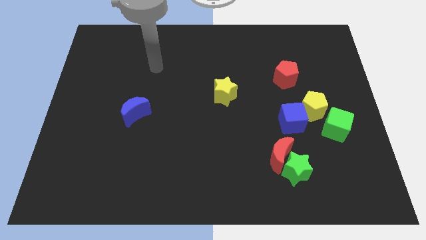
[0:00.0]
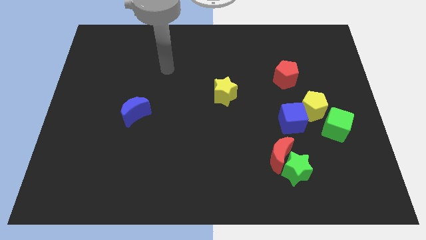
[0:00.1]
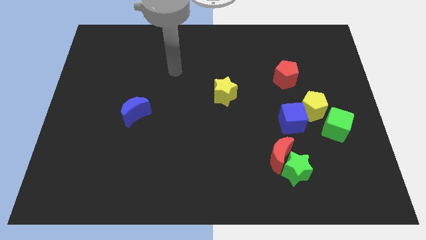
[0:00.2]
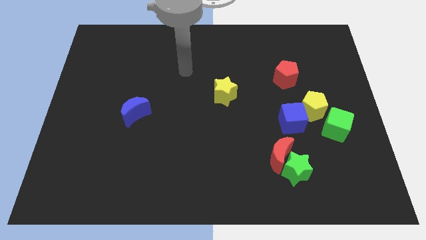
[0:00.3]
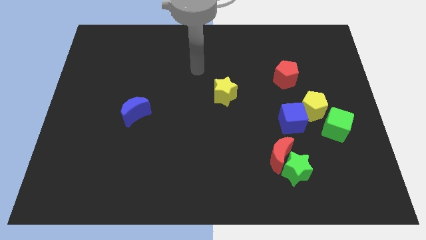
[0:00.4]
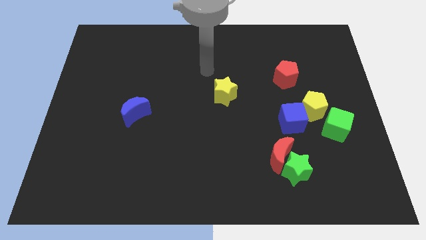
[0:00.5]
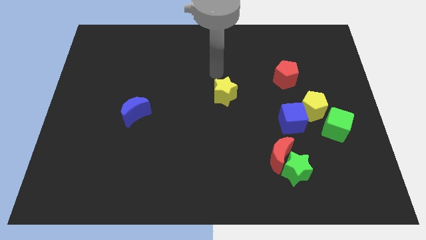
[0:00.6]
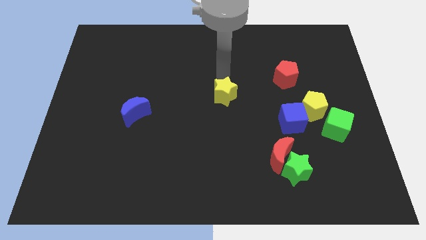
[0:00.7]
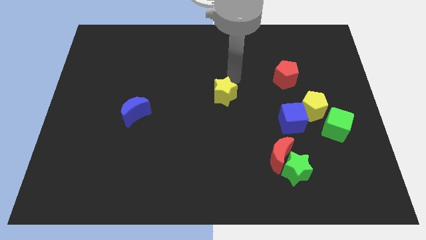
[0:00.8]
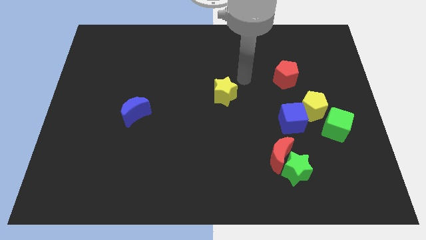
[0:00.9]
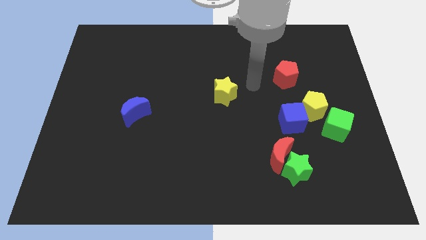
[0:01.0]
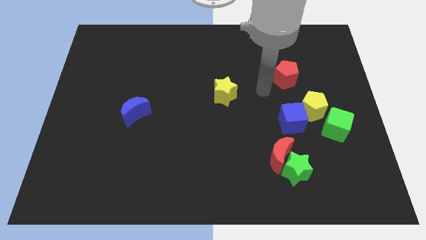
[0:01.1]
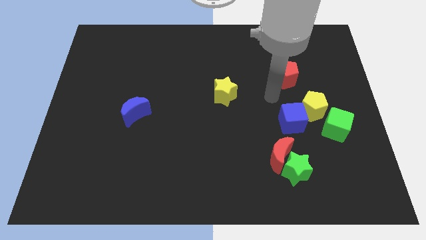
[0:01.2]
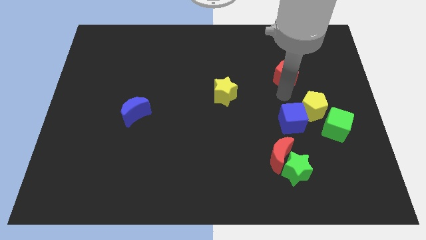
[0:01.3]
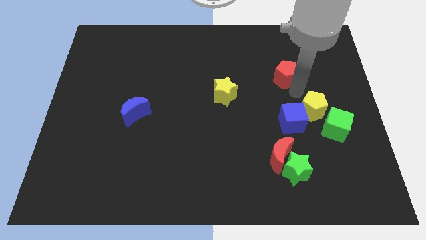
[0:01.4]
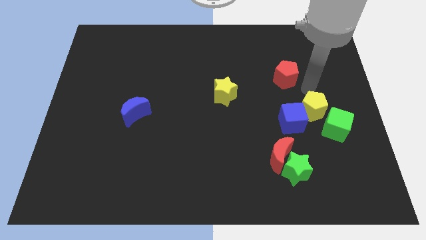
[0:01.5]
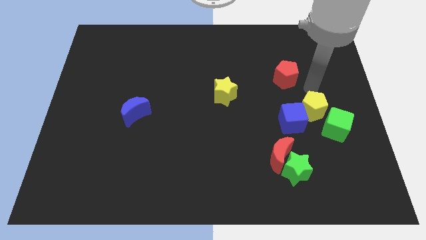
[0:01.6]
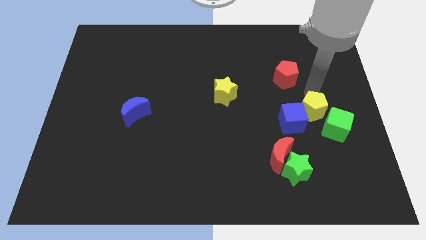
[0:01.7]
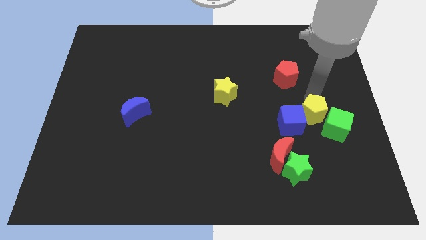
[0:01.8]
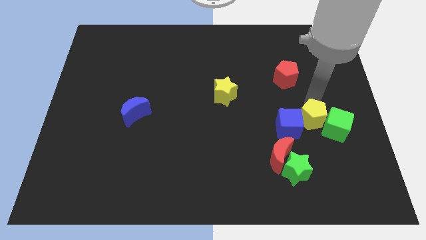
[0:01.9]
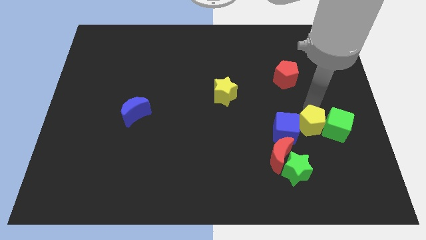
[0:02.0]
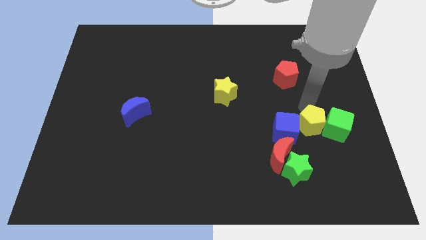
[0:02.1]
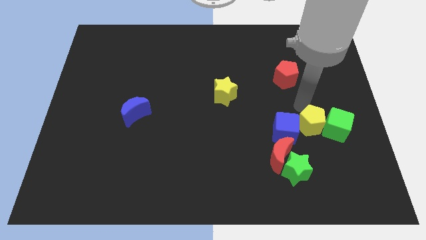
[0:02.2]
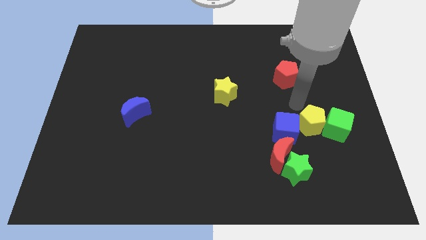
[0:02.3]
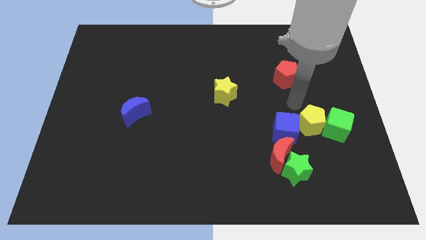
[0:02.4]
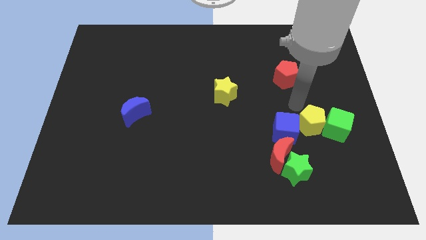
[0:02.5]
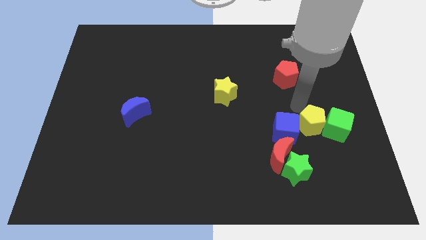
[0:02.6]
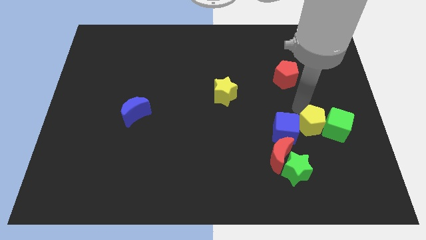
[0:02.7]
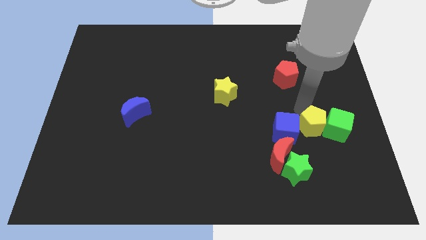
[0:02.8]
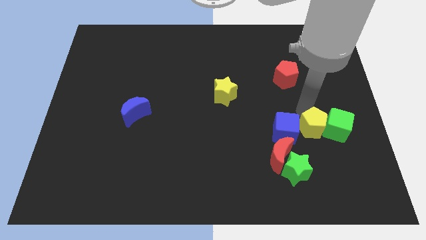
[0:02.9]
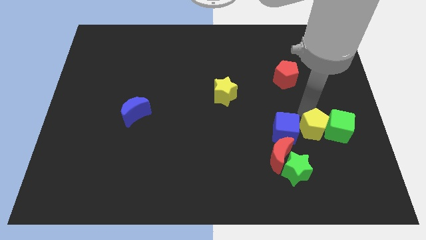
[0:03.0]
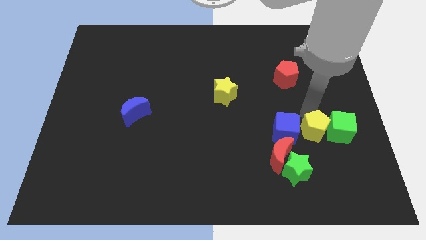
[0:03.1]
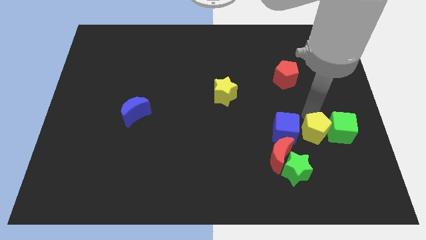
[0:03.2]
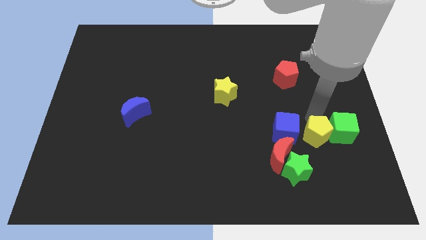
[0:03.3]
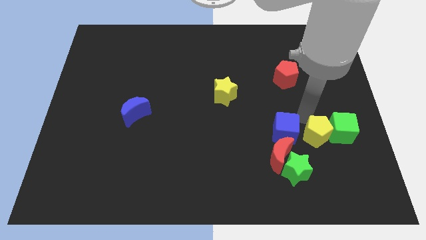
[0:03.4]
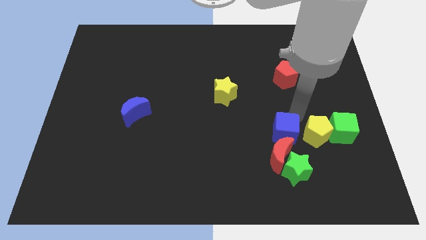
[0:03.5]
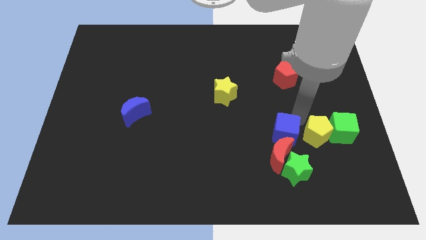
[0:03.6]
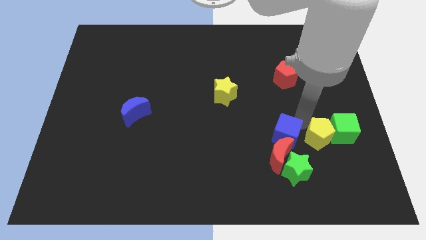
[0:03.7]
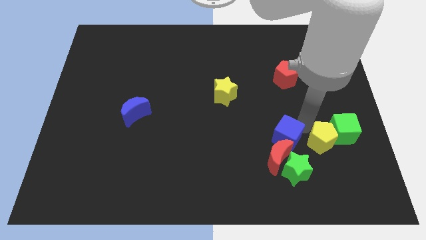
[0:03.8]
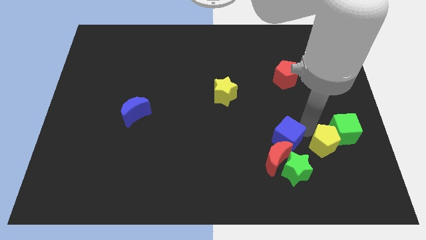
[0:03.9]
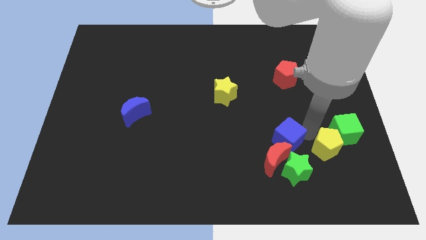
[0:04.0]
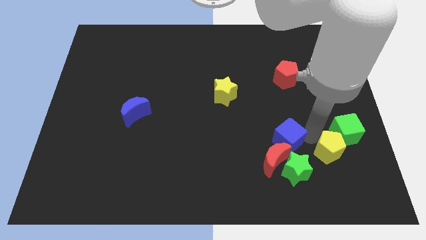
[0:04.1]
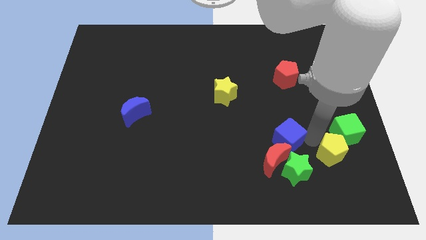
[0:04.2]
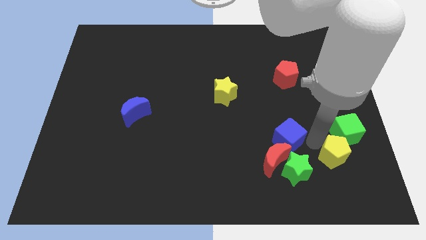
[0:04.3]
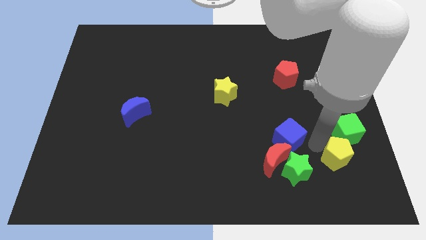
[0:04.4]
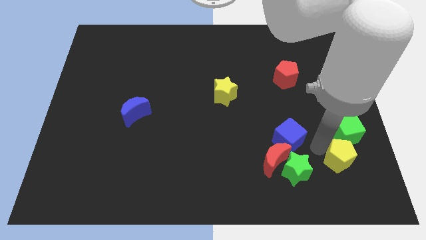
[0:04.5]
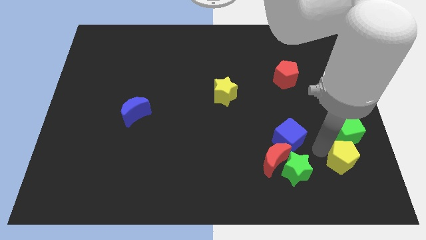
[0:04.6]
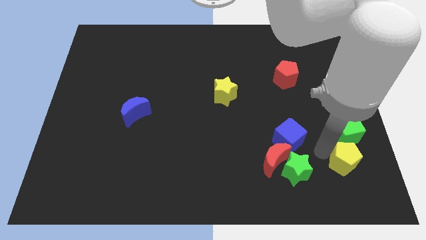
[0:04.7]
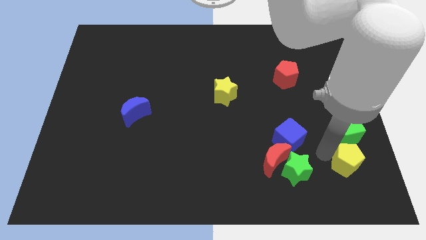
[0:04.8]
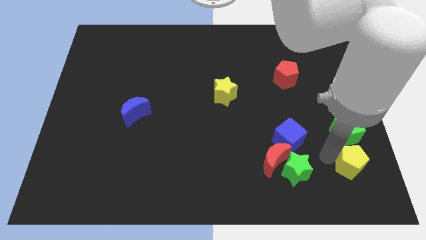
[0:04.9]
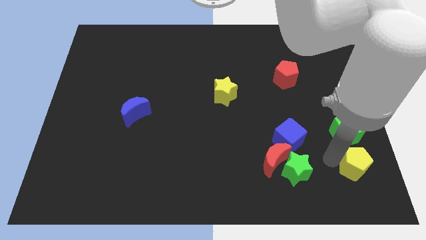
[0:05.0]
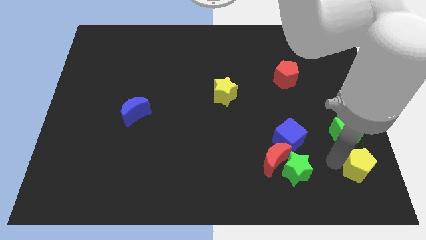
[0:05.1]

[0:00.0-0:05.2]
slide the yellow pentagon to the lower right corner

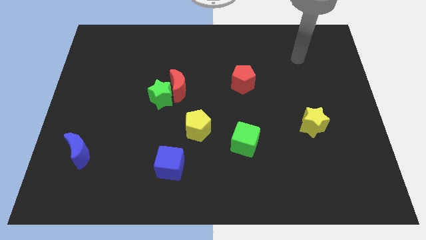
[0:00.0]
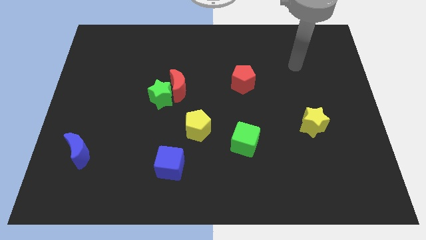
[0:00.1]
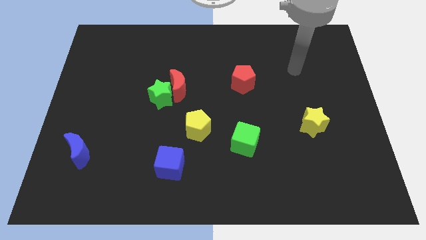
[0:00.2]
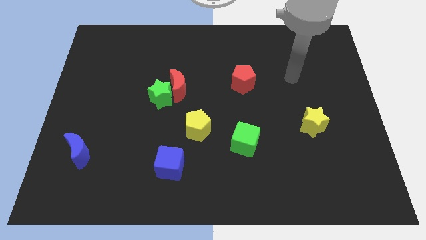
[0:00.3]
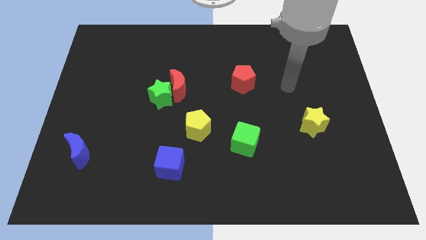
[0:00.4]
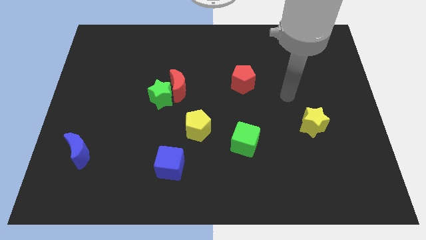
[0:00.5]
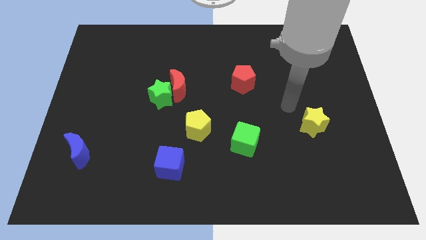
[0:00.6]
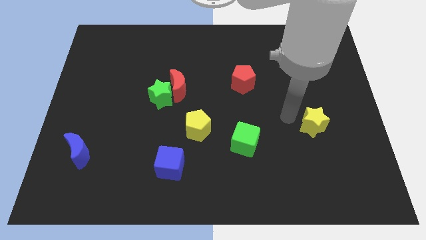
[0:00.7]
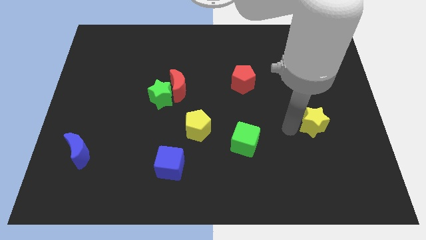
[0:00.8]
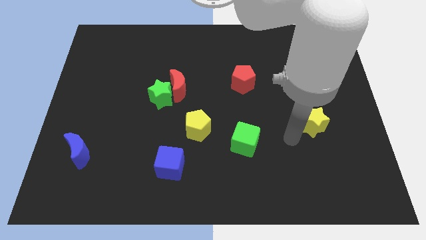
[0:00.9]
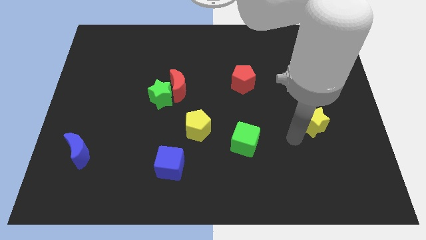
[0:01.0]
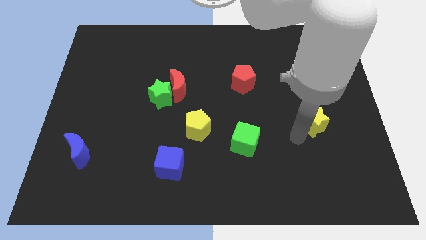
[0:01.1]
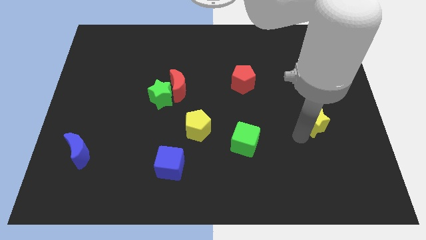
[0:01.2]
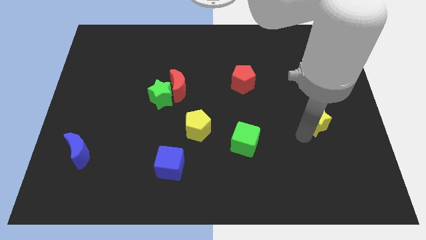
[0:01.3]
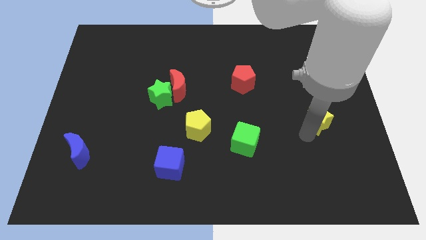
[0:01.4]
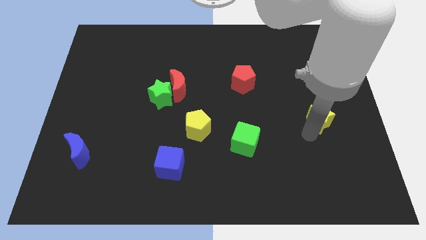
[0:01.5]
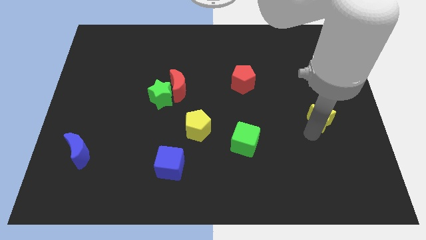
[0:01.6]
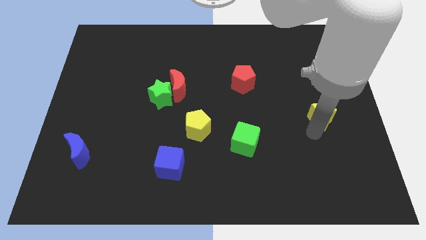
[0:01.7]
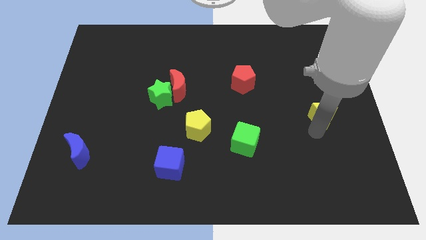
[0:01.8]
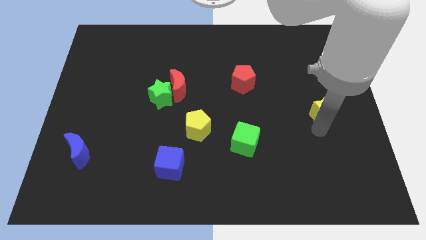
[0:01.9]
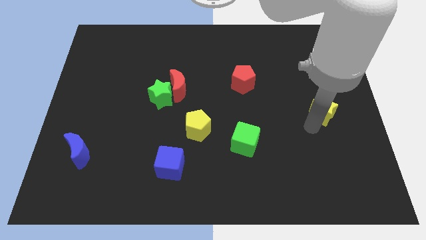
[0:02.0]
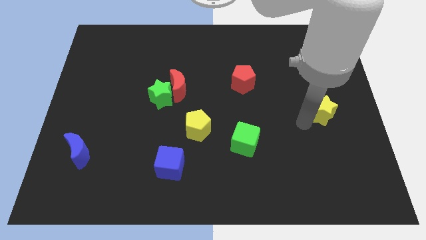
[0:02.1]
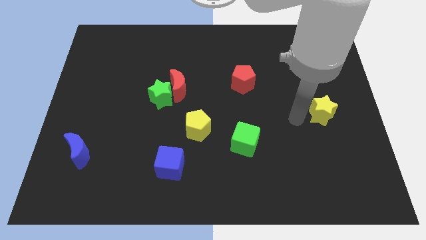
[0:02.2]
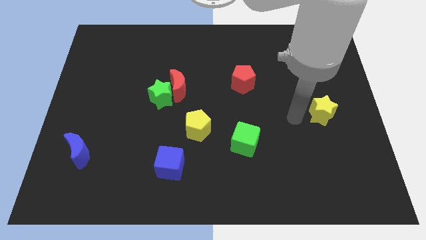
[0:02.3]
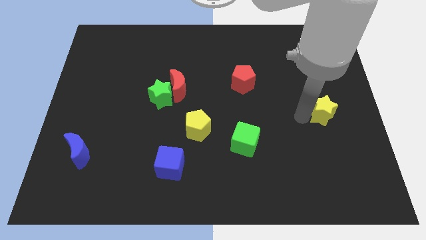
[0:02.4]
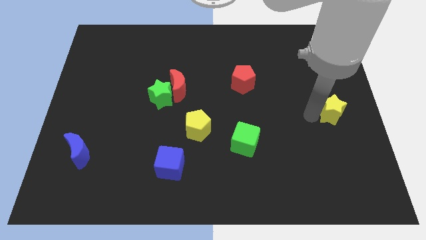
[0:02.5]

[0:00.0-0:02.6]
push the yellow star to the right side
